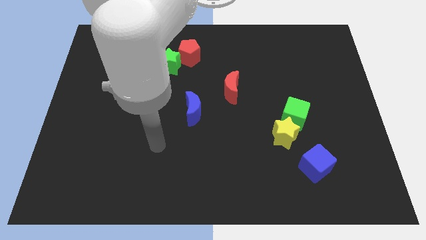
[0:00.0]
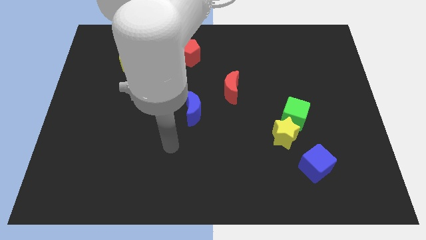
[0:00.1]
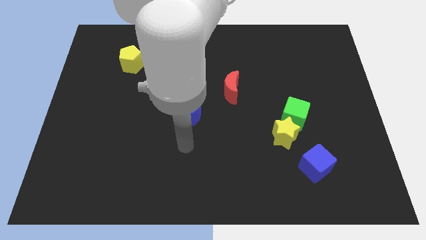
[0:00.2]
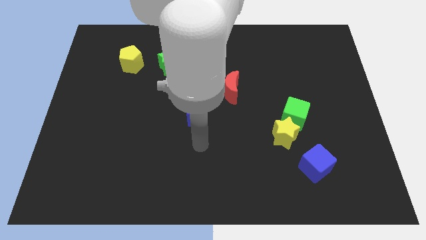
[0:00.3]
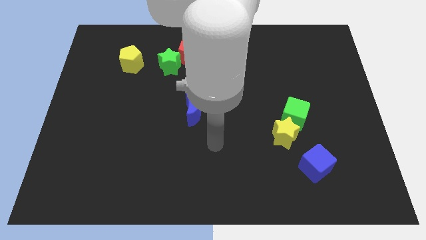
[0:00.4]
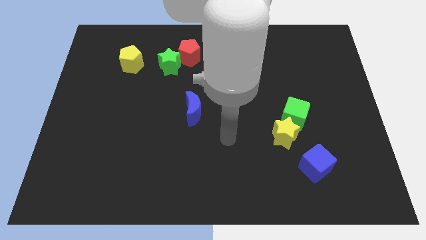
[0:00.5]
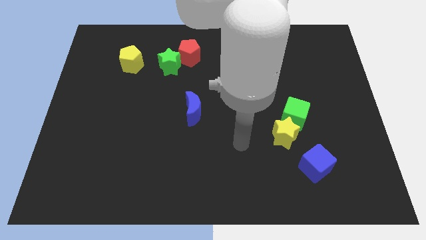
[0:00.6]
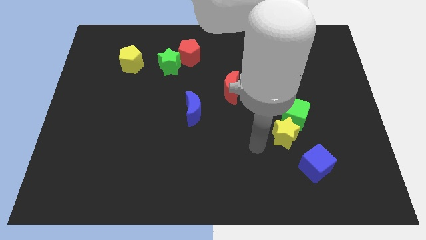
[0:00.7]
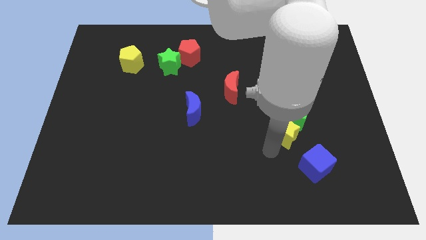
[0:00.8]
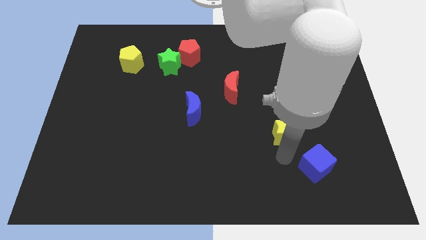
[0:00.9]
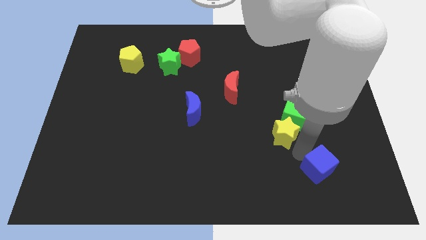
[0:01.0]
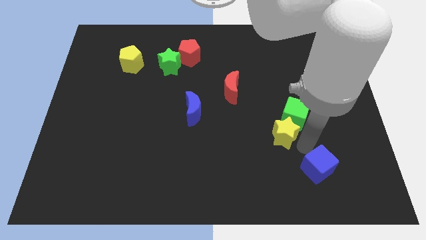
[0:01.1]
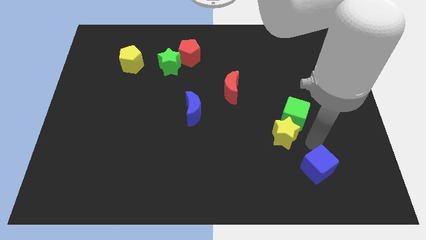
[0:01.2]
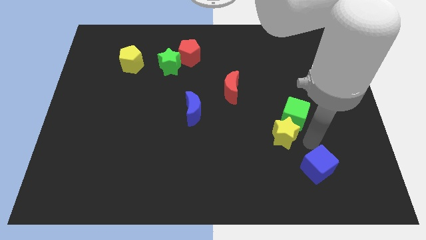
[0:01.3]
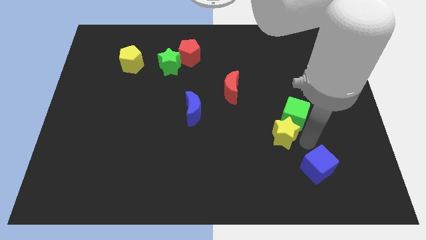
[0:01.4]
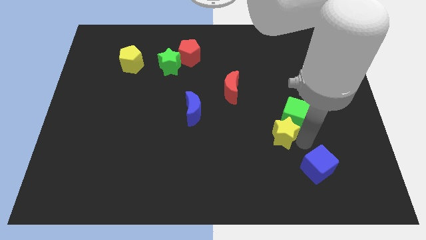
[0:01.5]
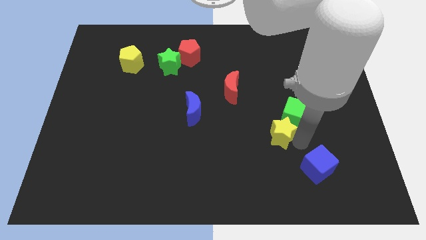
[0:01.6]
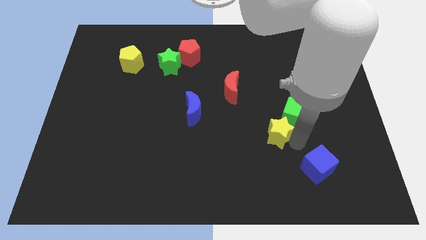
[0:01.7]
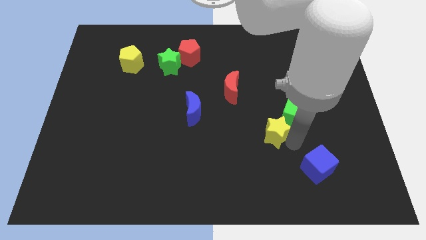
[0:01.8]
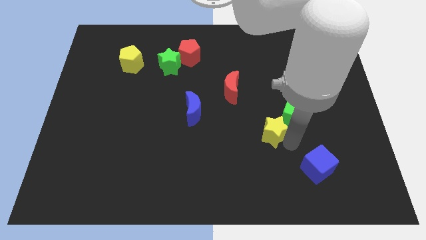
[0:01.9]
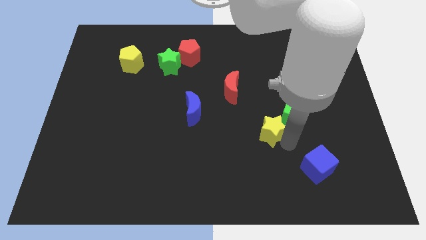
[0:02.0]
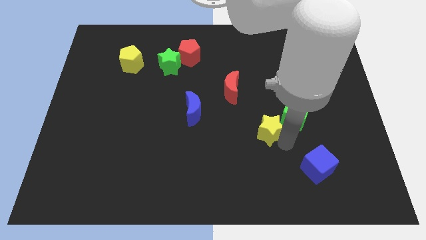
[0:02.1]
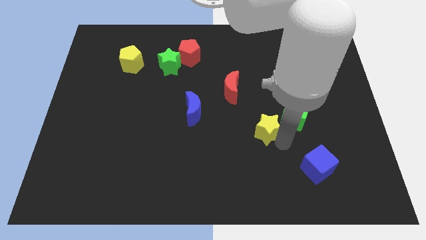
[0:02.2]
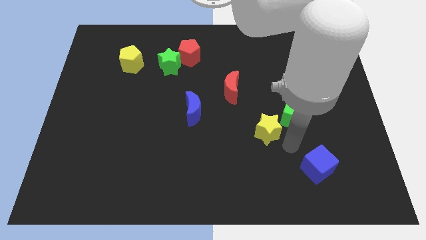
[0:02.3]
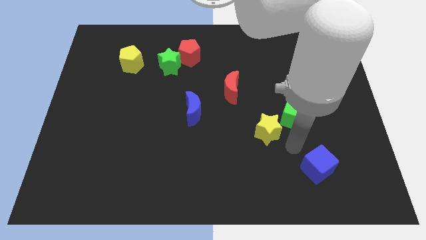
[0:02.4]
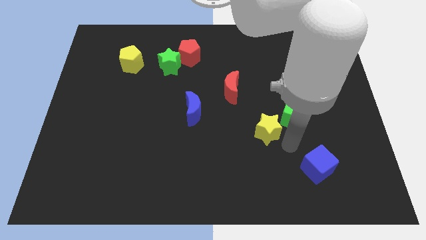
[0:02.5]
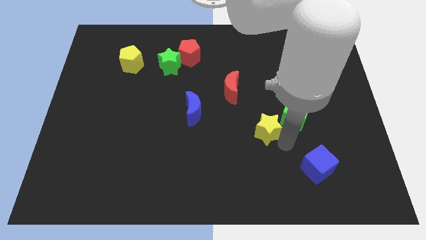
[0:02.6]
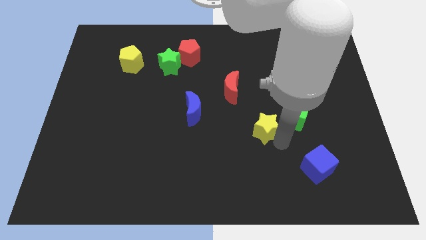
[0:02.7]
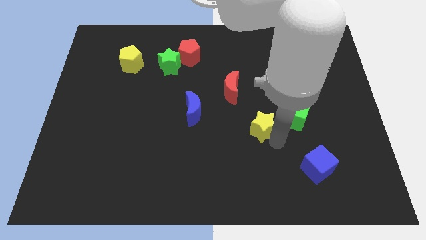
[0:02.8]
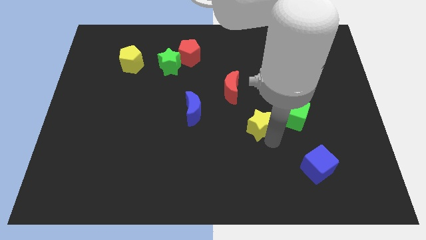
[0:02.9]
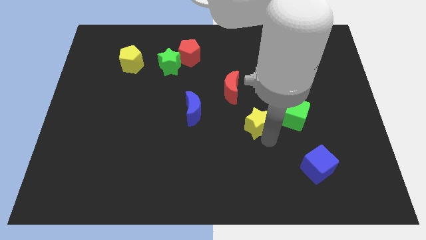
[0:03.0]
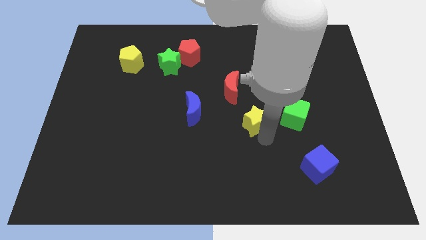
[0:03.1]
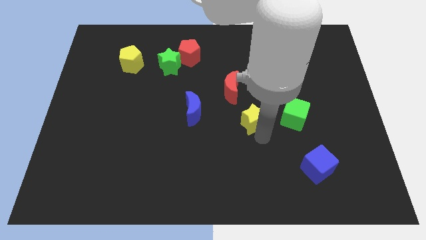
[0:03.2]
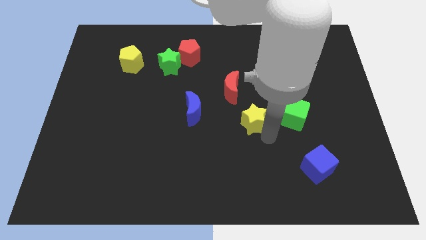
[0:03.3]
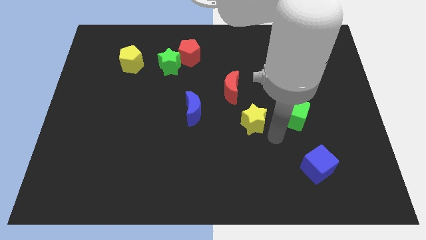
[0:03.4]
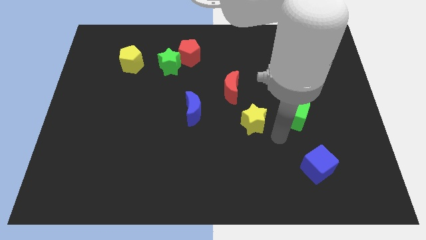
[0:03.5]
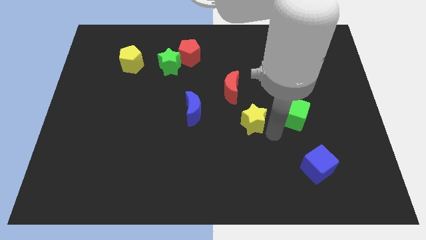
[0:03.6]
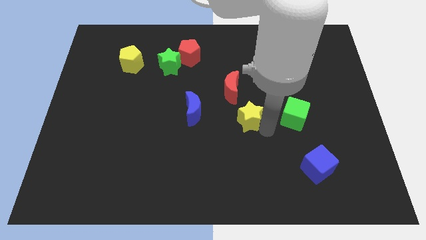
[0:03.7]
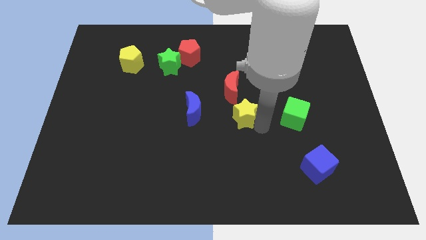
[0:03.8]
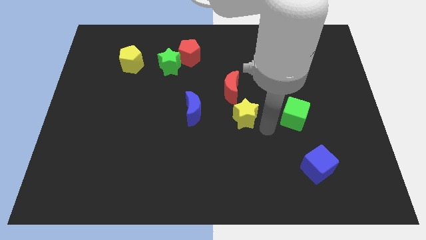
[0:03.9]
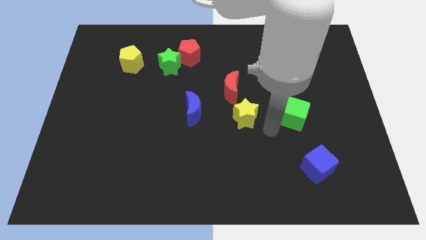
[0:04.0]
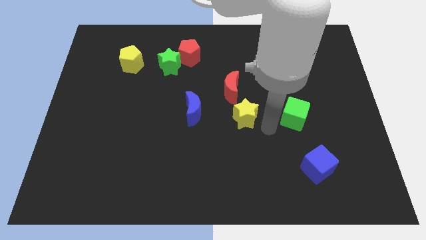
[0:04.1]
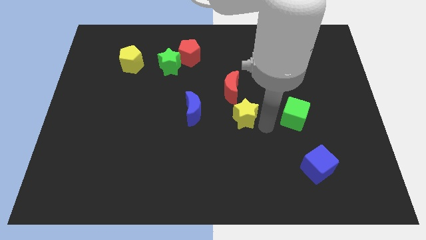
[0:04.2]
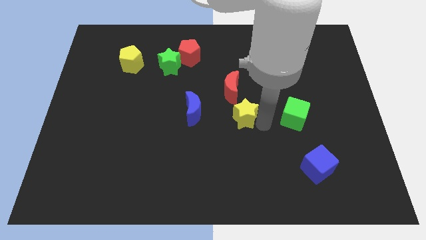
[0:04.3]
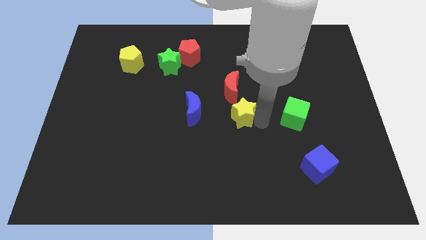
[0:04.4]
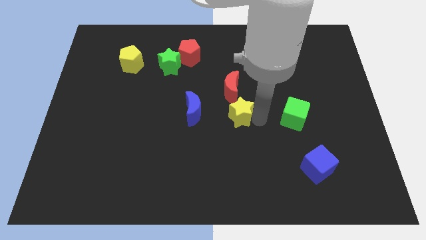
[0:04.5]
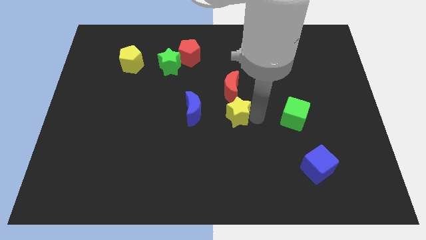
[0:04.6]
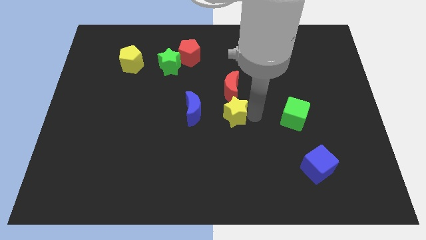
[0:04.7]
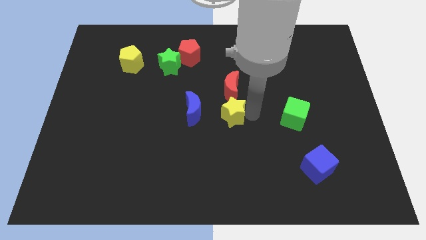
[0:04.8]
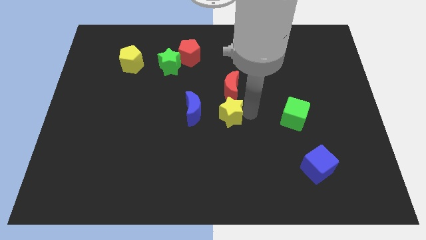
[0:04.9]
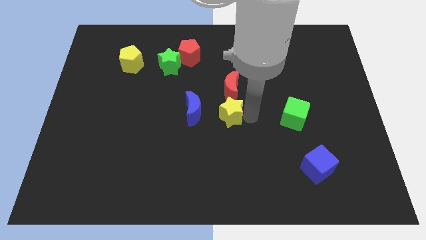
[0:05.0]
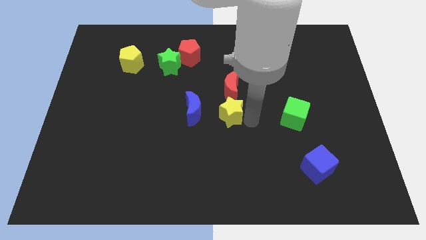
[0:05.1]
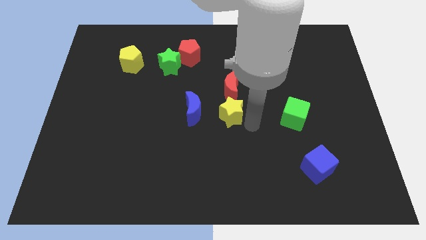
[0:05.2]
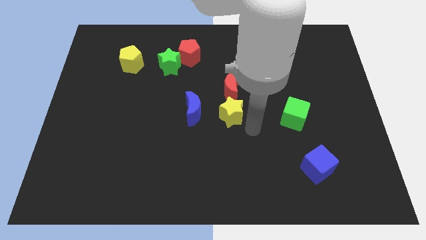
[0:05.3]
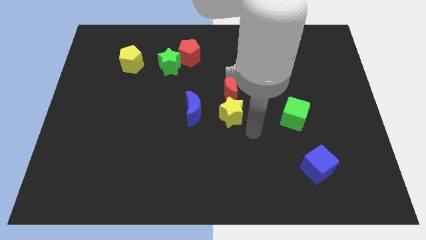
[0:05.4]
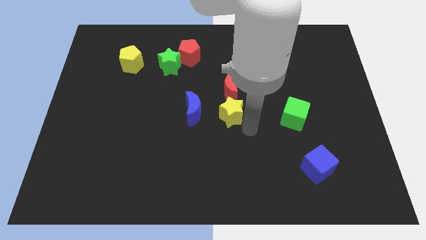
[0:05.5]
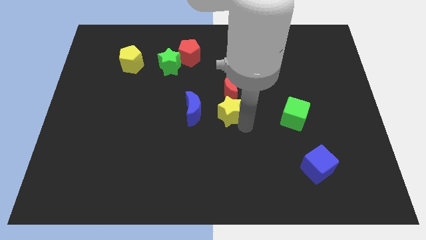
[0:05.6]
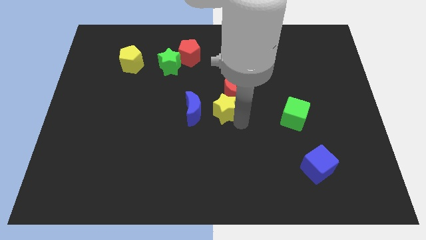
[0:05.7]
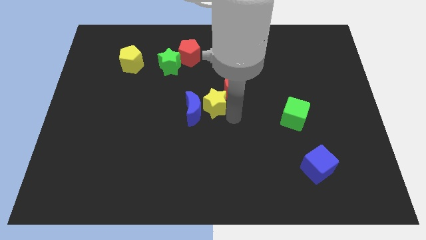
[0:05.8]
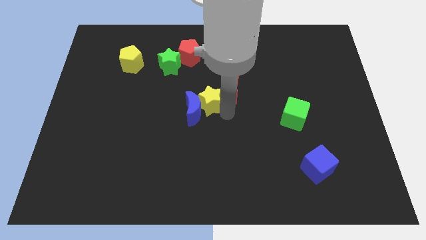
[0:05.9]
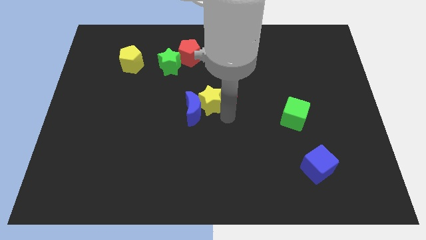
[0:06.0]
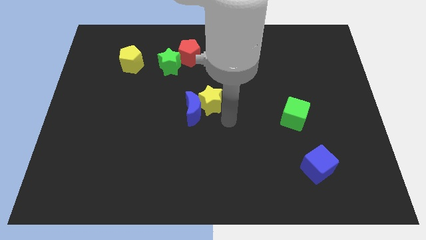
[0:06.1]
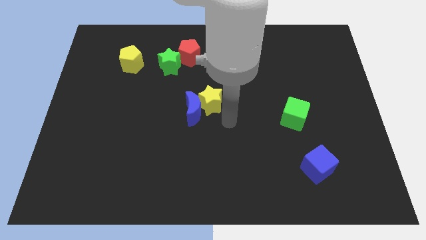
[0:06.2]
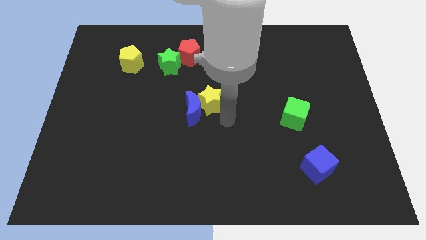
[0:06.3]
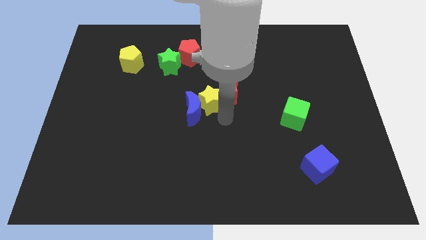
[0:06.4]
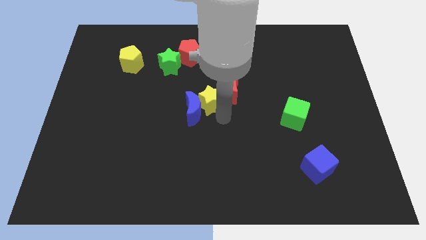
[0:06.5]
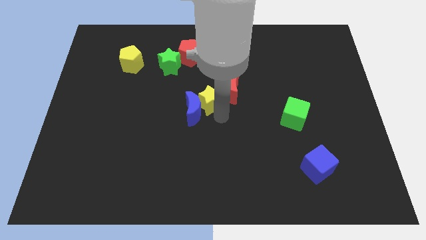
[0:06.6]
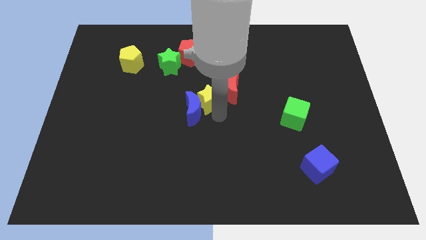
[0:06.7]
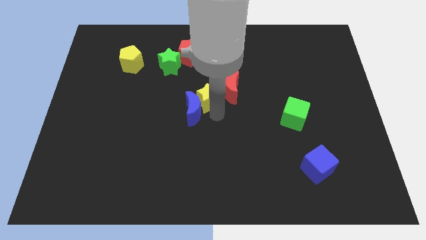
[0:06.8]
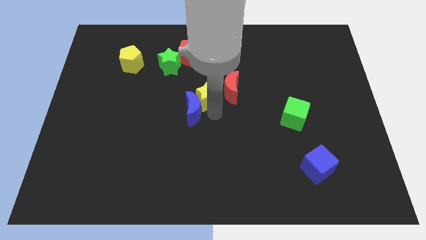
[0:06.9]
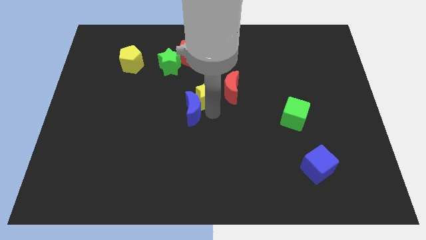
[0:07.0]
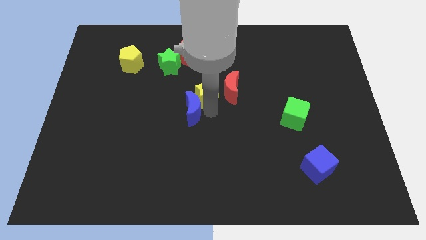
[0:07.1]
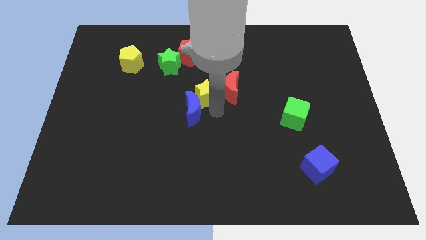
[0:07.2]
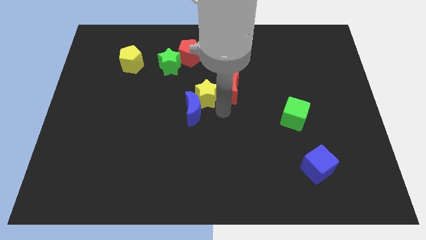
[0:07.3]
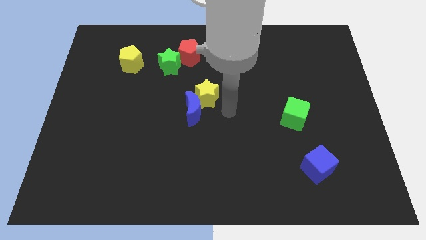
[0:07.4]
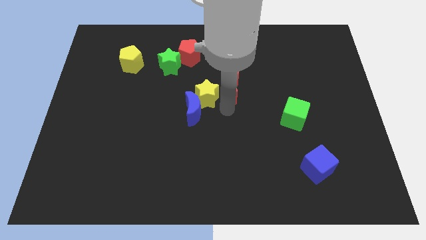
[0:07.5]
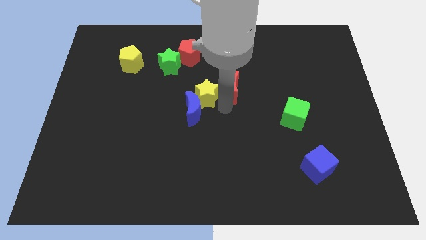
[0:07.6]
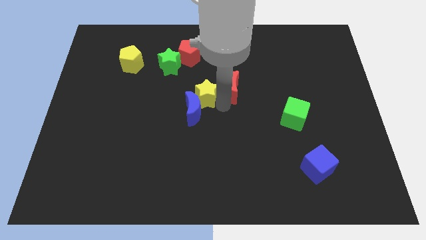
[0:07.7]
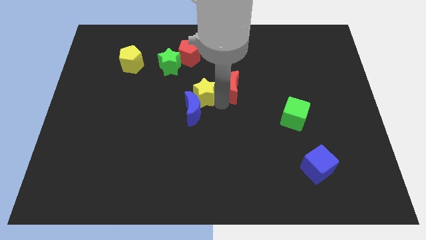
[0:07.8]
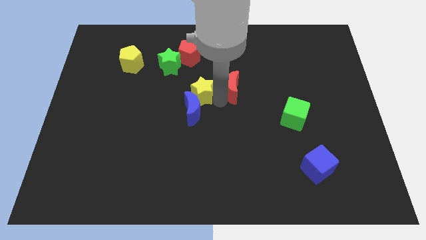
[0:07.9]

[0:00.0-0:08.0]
slide the yellow star to the bottom side of the red pentagon
